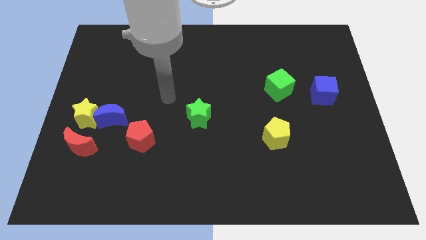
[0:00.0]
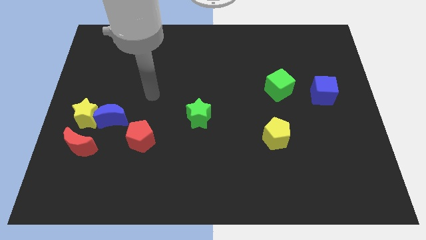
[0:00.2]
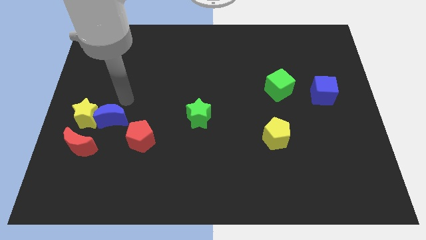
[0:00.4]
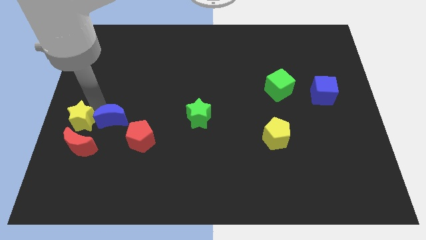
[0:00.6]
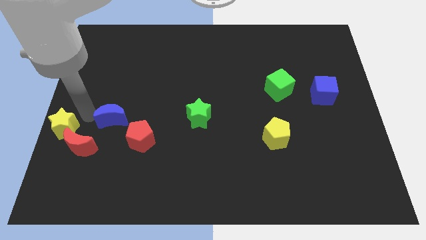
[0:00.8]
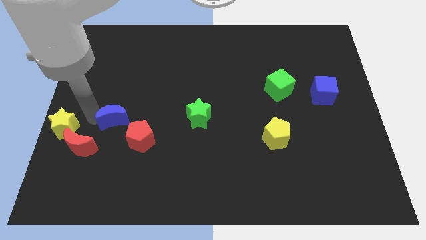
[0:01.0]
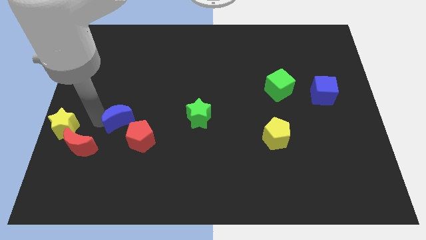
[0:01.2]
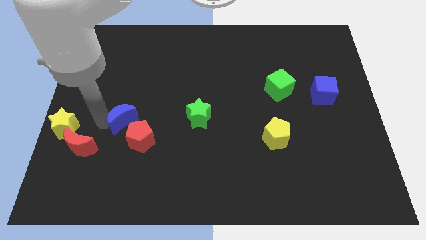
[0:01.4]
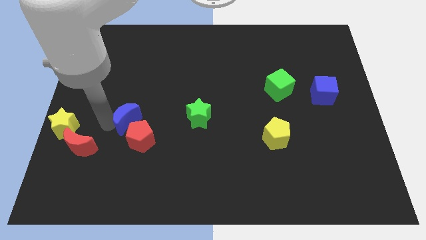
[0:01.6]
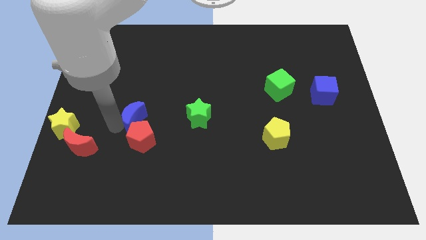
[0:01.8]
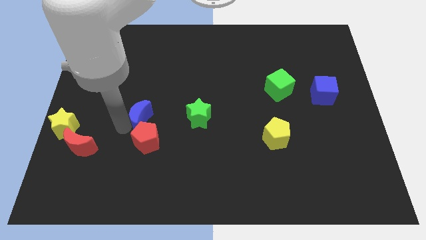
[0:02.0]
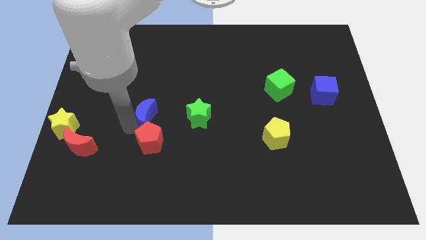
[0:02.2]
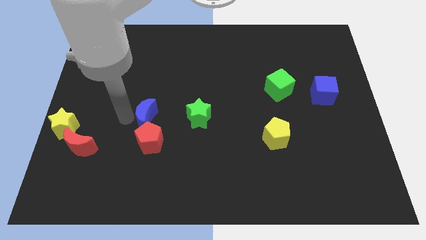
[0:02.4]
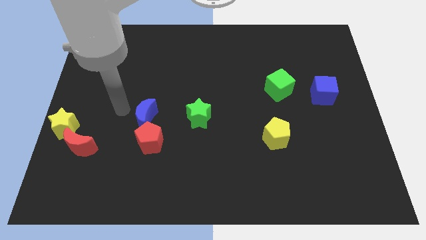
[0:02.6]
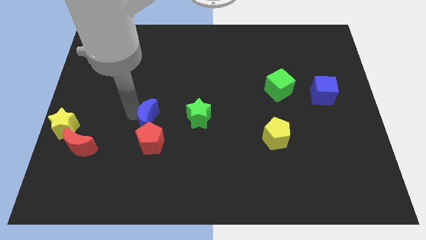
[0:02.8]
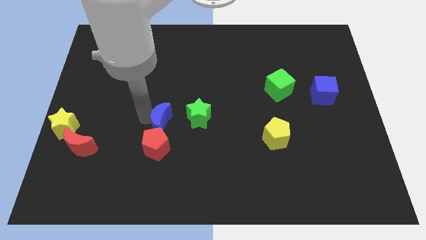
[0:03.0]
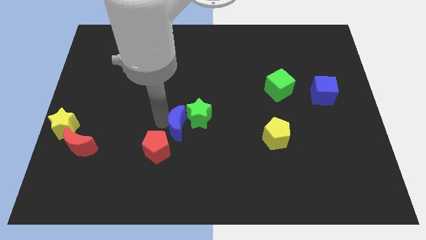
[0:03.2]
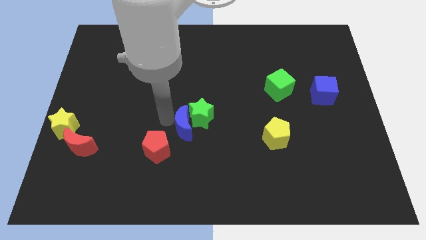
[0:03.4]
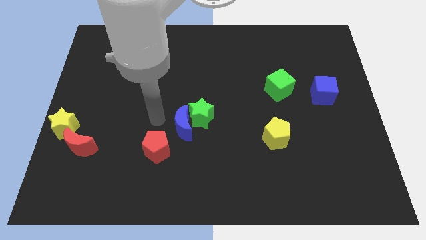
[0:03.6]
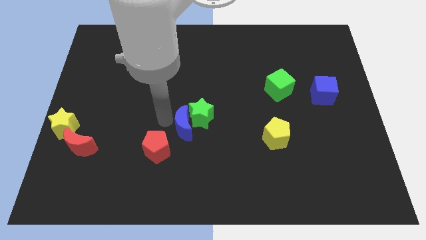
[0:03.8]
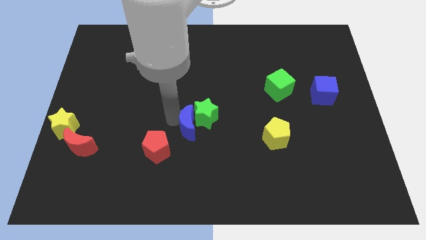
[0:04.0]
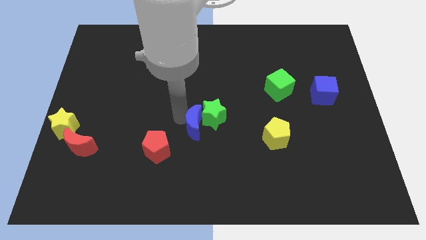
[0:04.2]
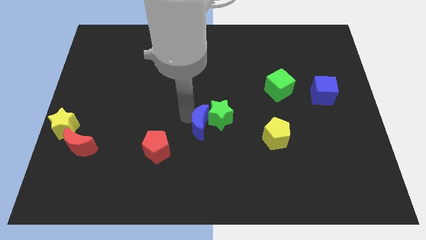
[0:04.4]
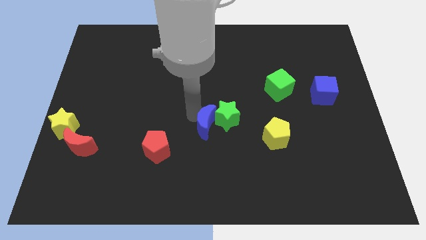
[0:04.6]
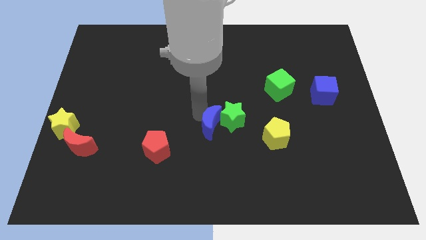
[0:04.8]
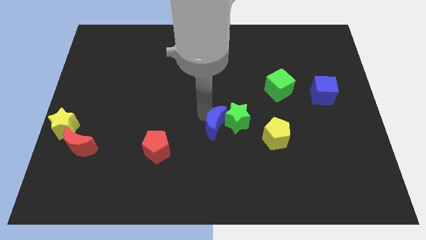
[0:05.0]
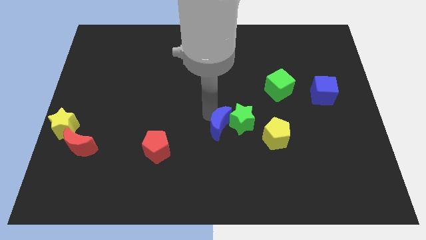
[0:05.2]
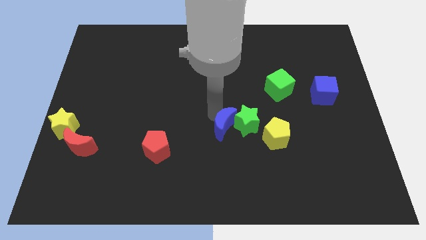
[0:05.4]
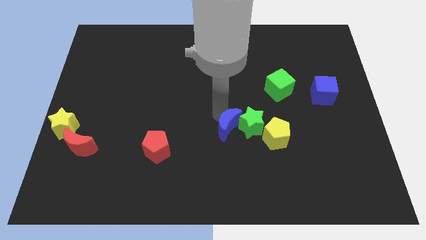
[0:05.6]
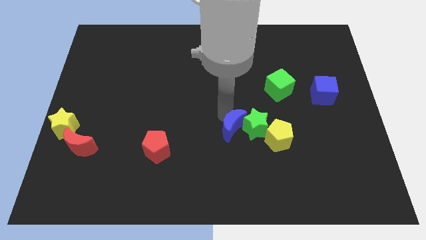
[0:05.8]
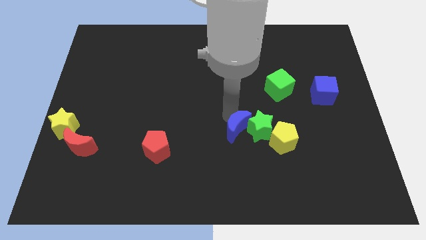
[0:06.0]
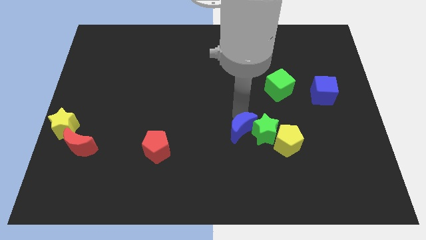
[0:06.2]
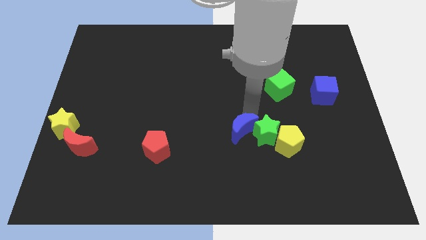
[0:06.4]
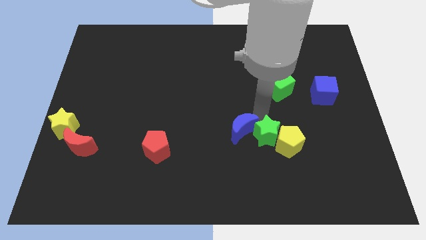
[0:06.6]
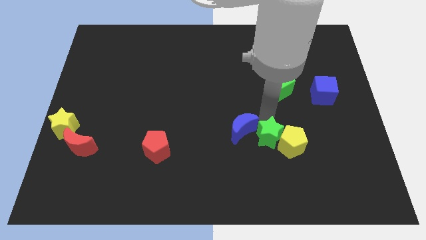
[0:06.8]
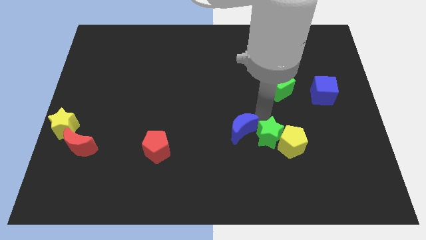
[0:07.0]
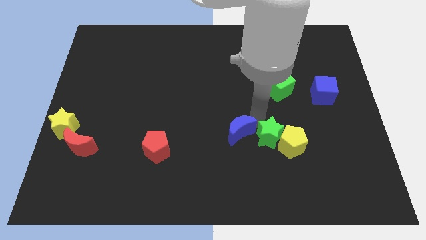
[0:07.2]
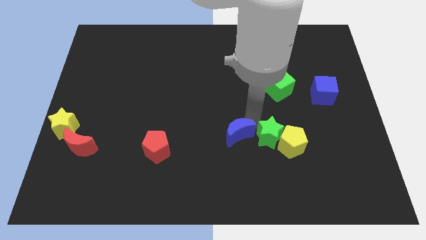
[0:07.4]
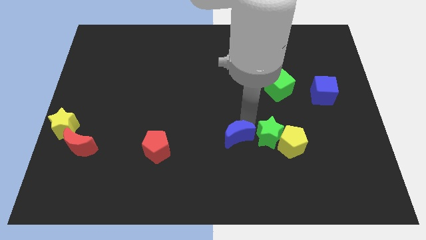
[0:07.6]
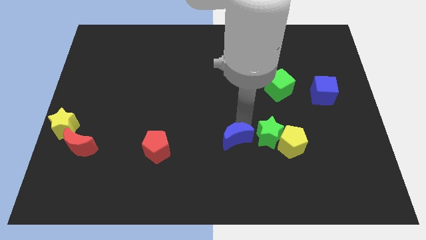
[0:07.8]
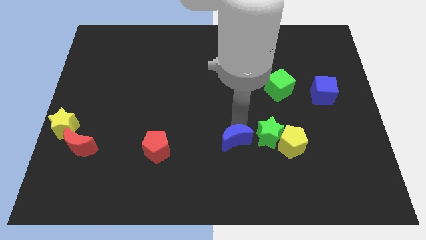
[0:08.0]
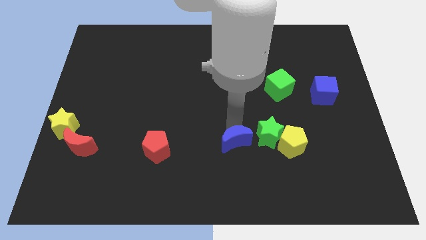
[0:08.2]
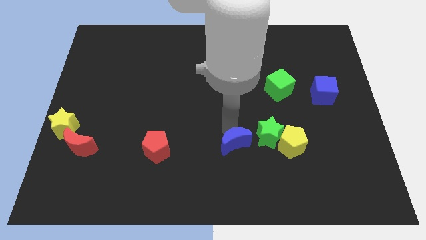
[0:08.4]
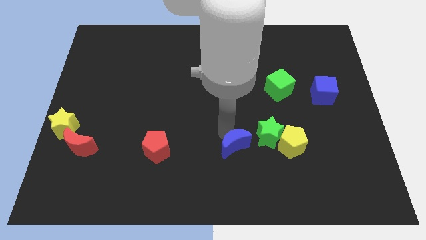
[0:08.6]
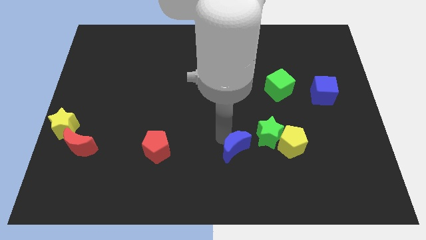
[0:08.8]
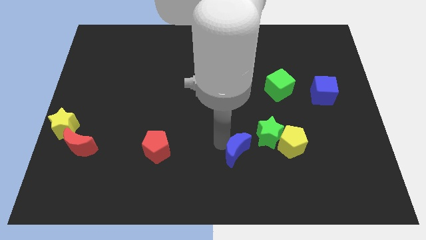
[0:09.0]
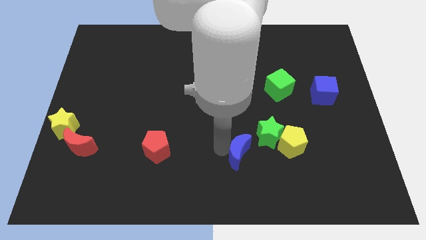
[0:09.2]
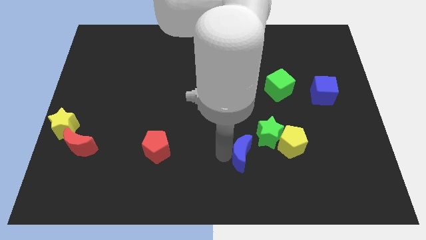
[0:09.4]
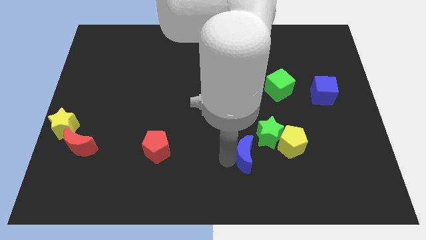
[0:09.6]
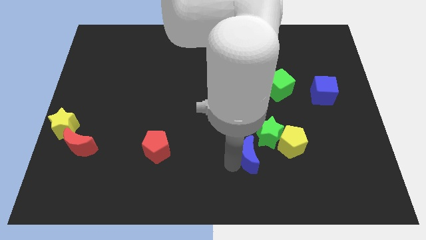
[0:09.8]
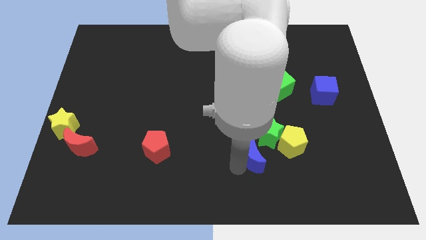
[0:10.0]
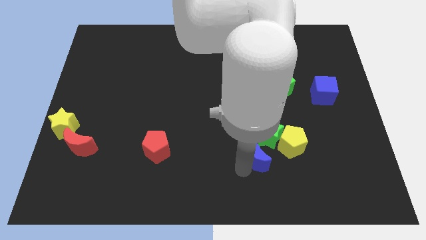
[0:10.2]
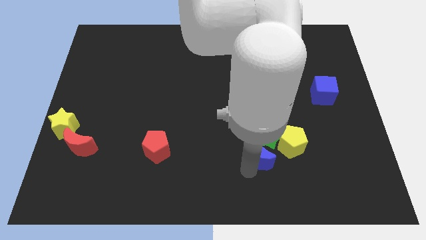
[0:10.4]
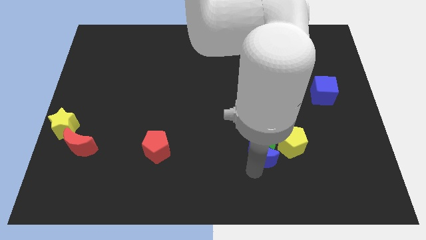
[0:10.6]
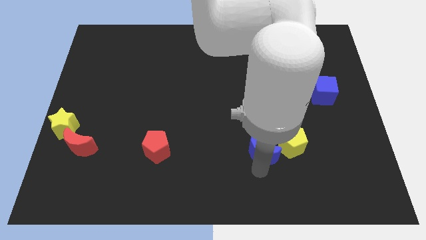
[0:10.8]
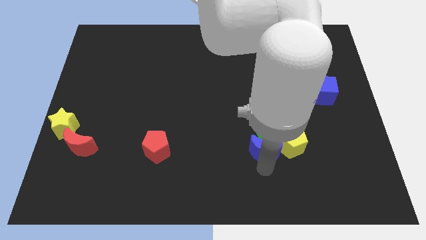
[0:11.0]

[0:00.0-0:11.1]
push the blue moon towards the yellow pentagon

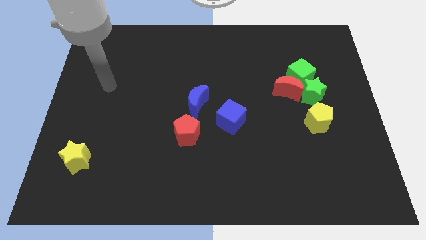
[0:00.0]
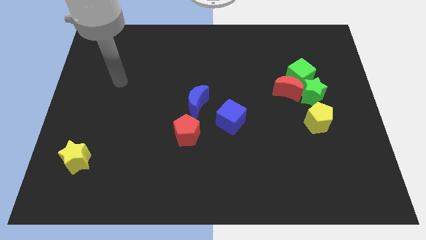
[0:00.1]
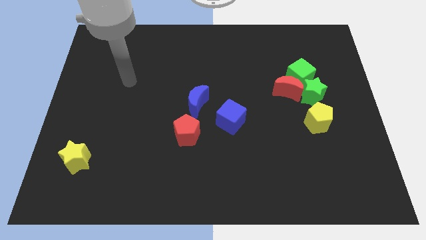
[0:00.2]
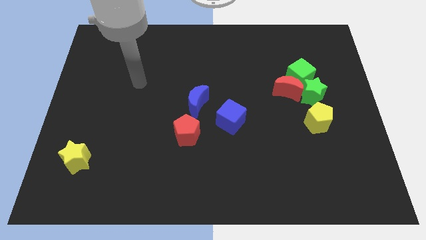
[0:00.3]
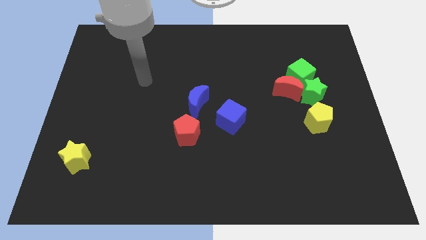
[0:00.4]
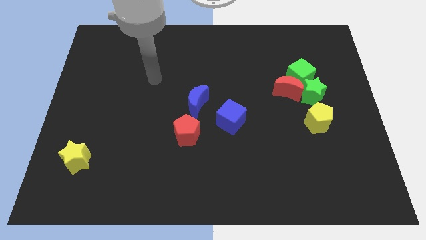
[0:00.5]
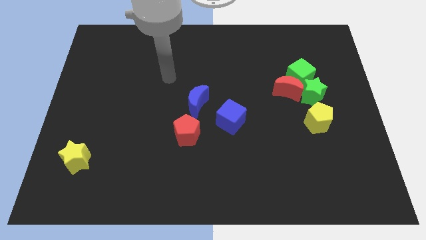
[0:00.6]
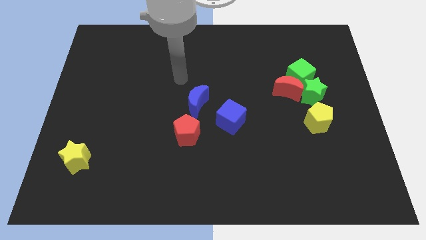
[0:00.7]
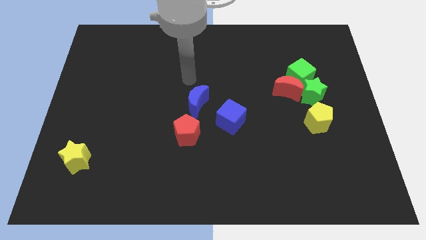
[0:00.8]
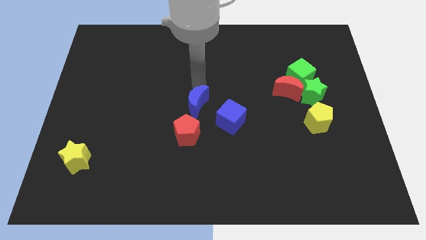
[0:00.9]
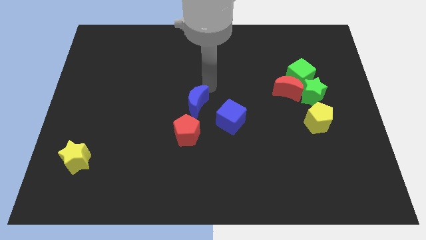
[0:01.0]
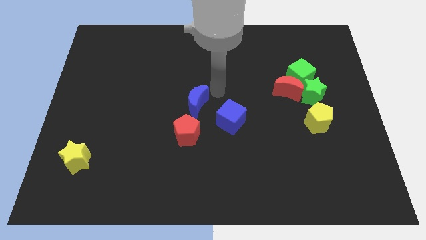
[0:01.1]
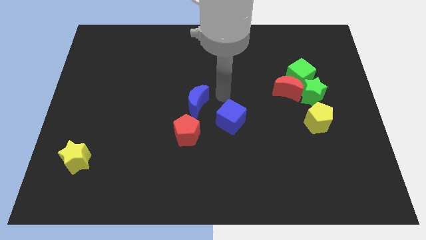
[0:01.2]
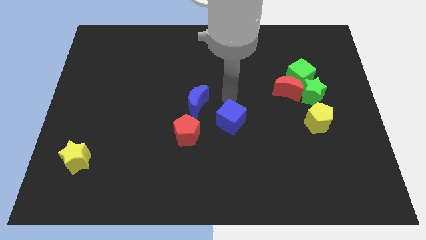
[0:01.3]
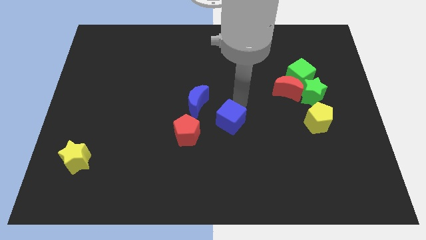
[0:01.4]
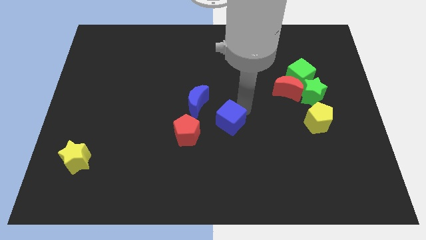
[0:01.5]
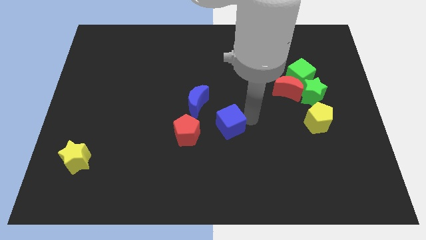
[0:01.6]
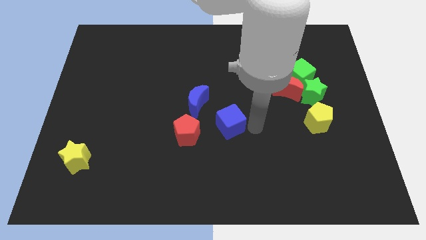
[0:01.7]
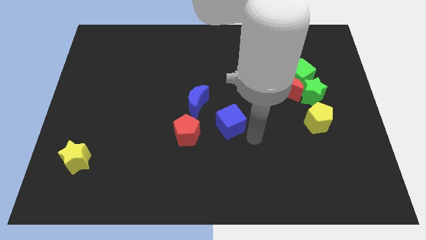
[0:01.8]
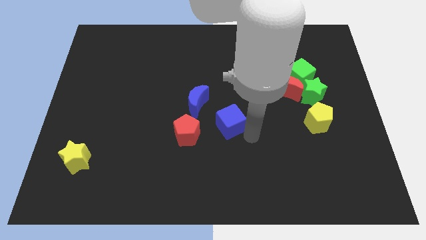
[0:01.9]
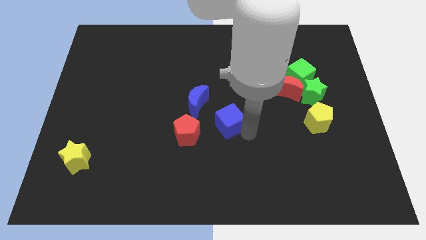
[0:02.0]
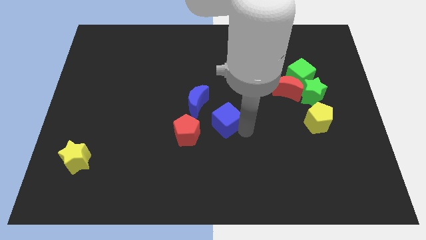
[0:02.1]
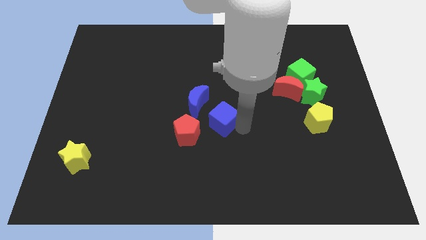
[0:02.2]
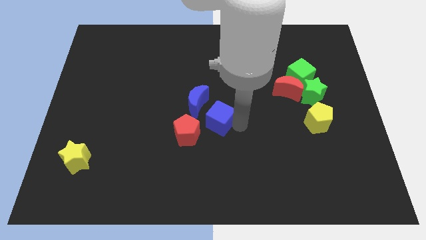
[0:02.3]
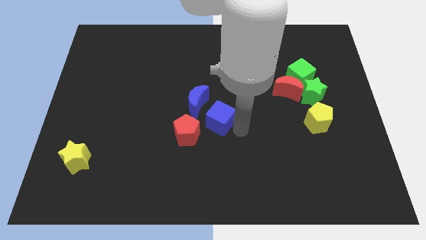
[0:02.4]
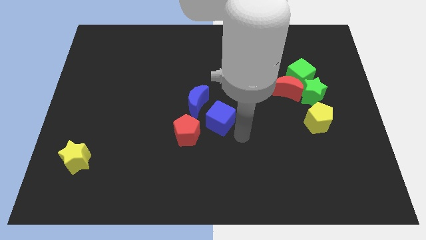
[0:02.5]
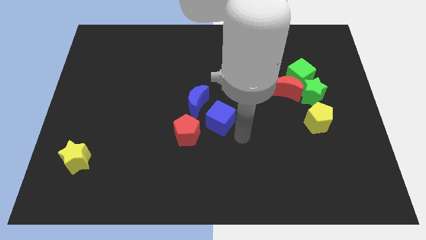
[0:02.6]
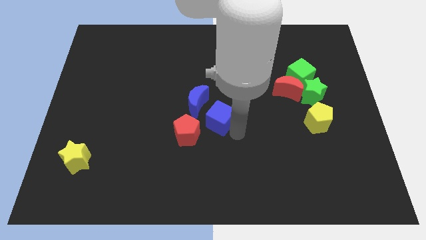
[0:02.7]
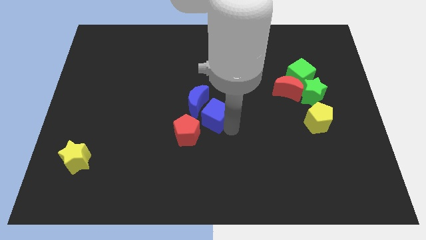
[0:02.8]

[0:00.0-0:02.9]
push the blue cube to the blue moon
